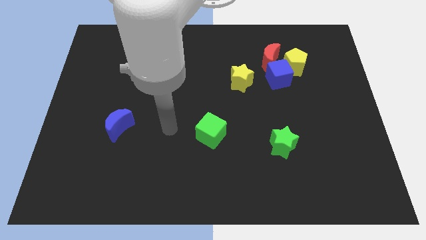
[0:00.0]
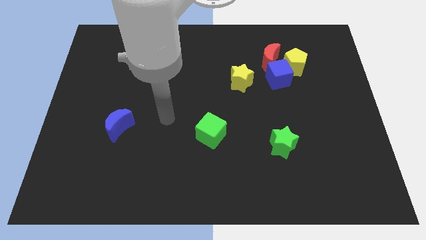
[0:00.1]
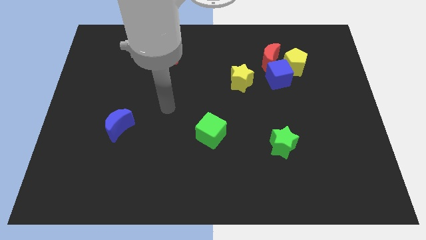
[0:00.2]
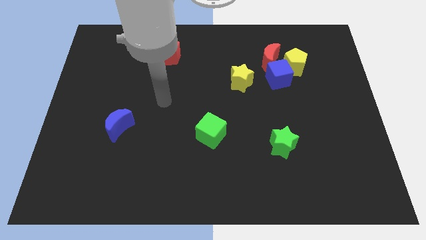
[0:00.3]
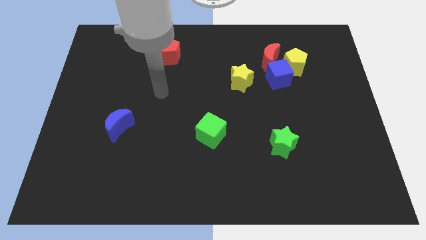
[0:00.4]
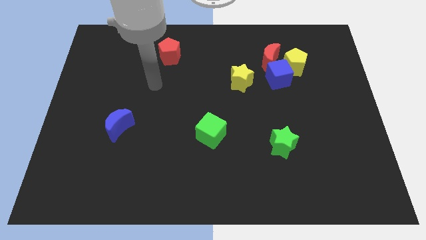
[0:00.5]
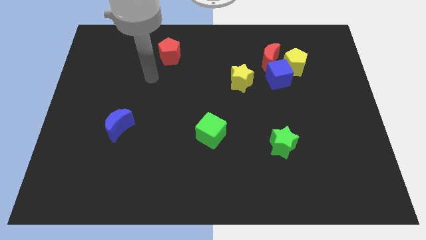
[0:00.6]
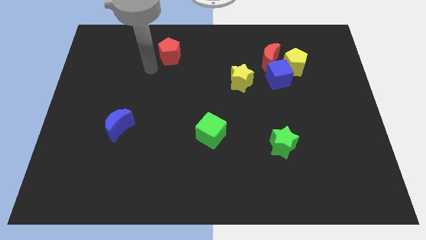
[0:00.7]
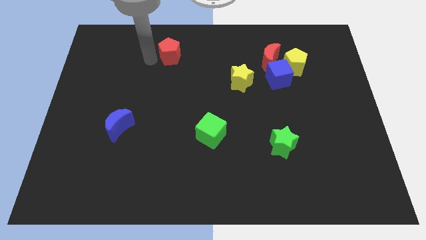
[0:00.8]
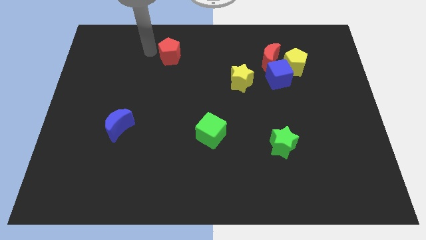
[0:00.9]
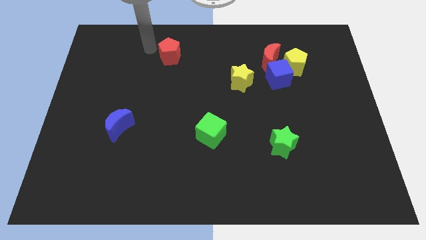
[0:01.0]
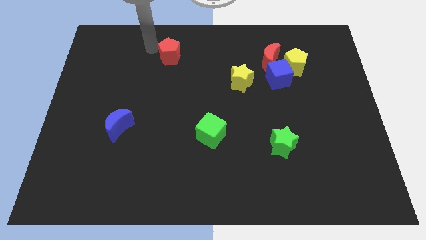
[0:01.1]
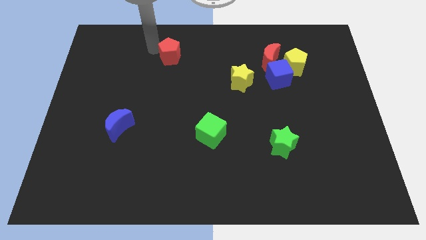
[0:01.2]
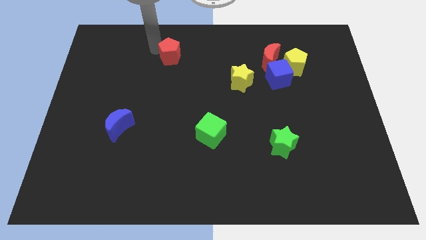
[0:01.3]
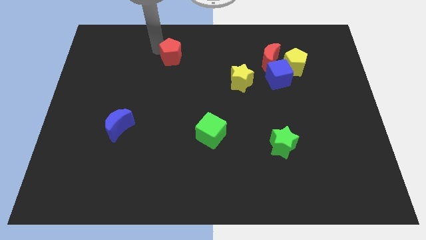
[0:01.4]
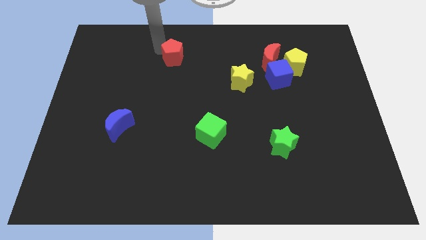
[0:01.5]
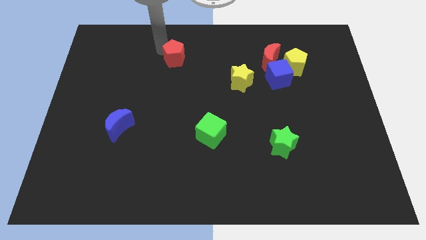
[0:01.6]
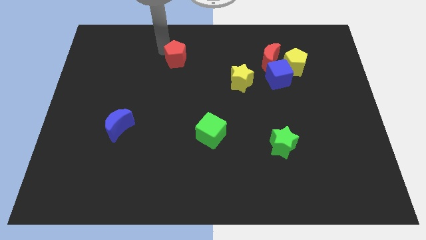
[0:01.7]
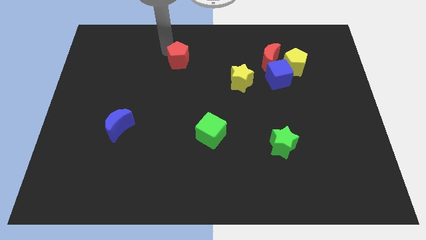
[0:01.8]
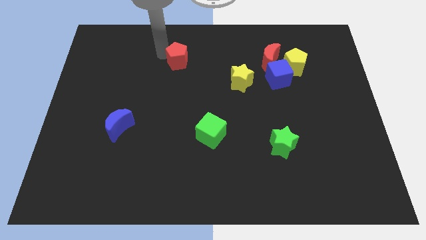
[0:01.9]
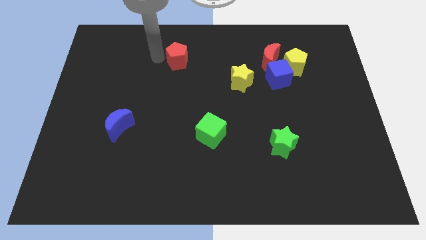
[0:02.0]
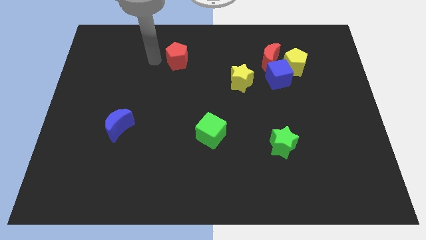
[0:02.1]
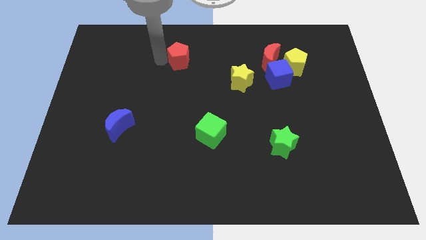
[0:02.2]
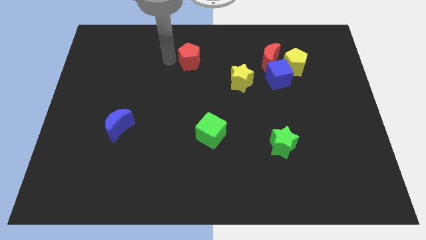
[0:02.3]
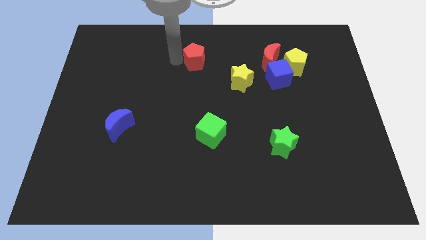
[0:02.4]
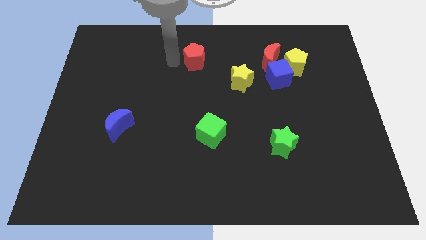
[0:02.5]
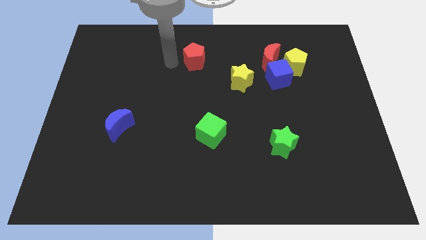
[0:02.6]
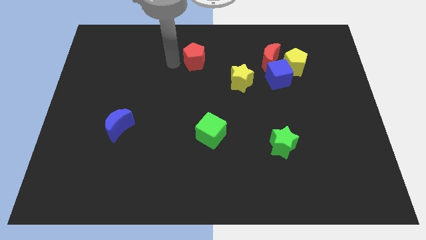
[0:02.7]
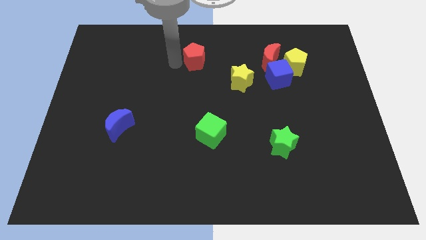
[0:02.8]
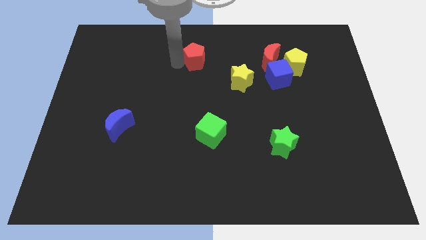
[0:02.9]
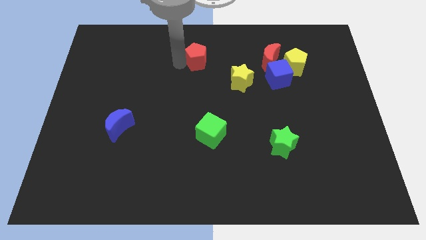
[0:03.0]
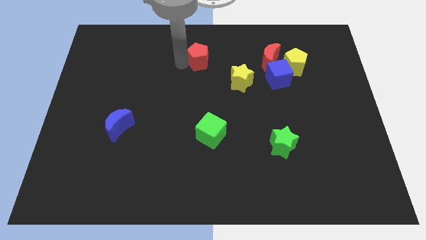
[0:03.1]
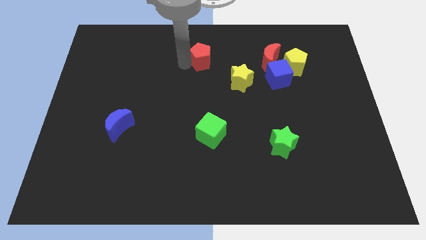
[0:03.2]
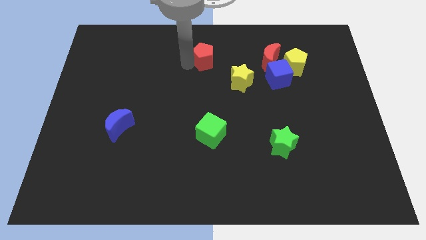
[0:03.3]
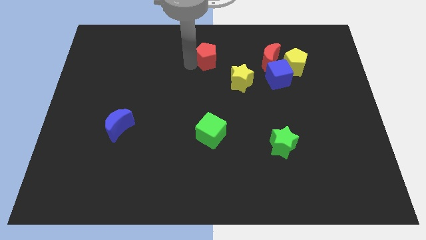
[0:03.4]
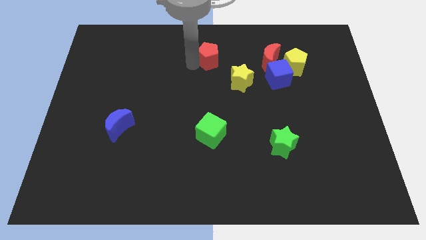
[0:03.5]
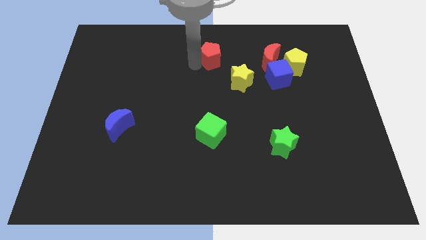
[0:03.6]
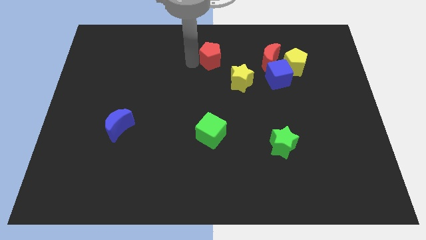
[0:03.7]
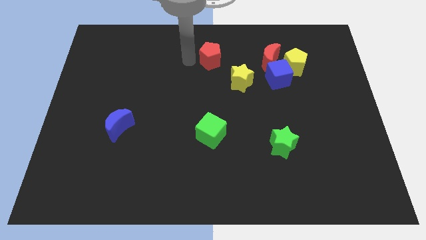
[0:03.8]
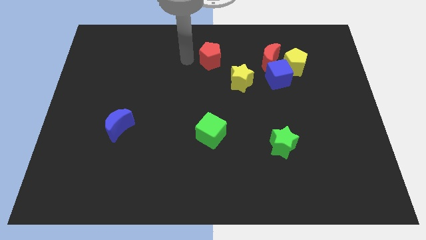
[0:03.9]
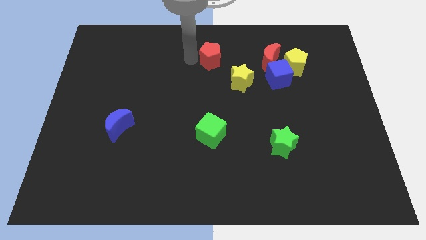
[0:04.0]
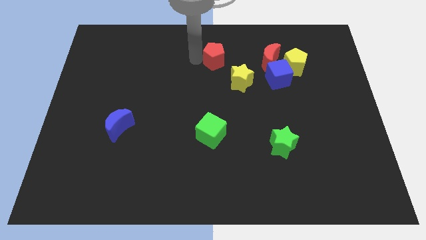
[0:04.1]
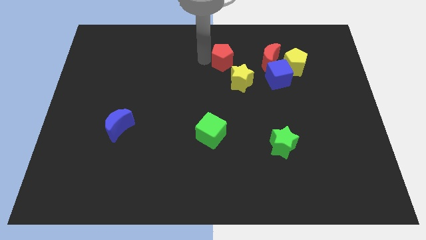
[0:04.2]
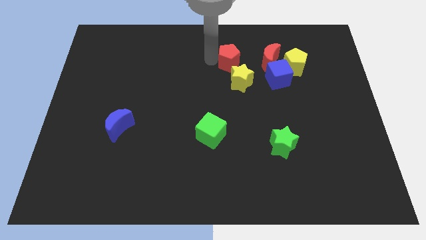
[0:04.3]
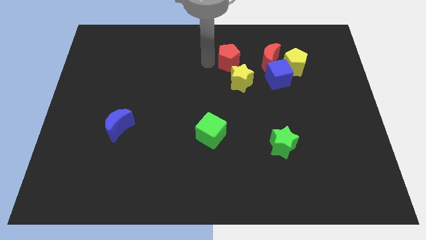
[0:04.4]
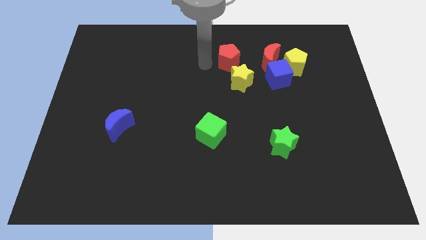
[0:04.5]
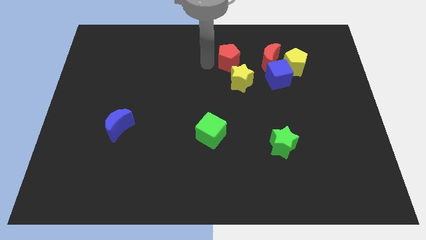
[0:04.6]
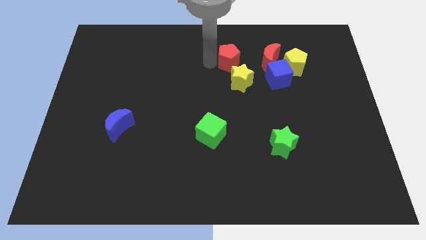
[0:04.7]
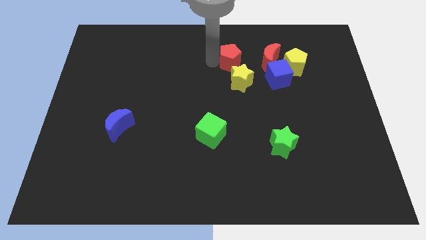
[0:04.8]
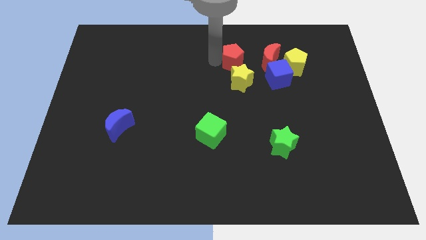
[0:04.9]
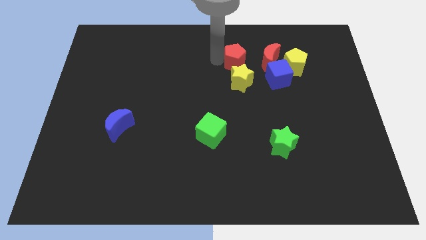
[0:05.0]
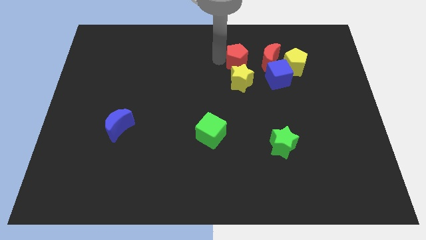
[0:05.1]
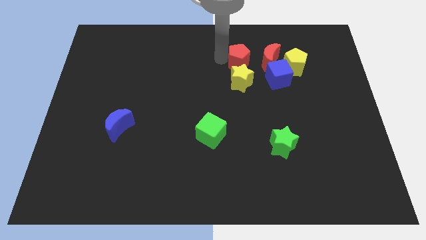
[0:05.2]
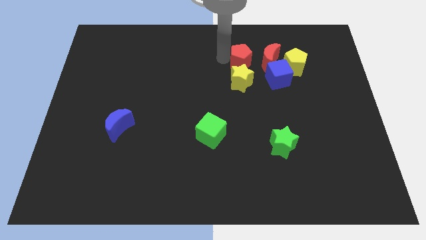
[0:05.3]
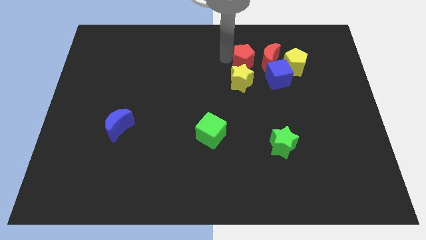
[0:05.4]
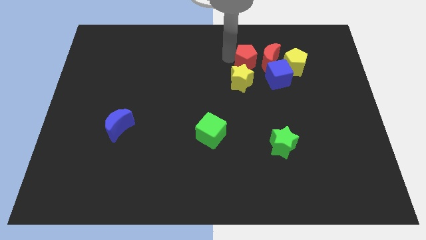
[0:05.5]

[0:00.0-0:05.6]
move the red pentagon next to the red moon

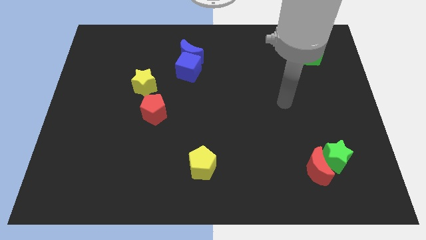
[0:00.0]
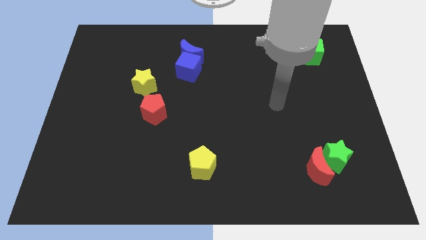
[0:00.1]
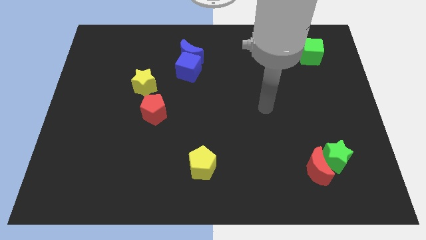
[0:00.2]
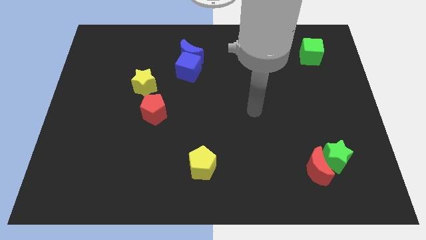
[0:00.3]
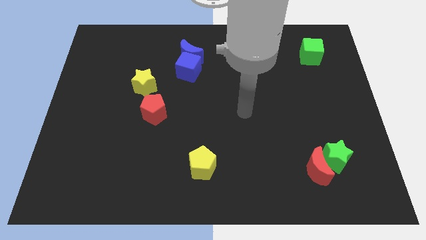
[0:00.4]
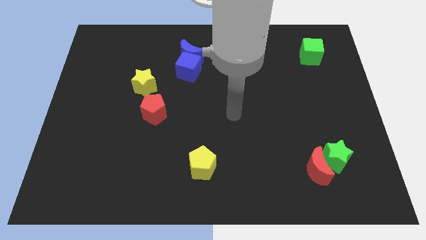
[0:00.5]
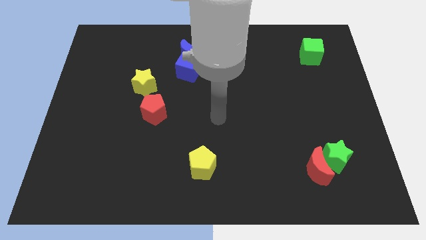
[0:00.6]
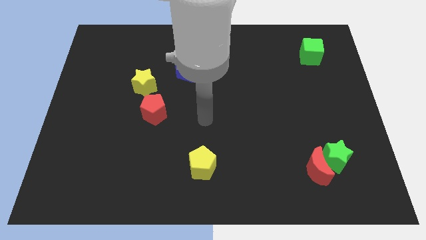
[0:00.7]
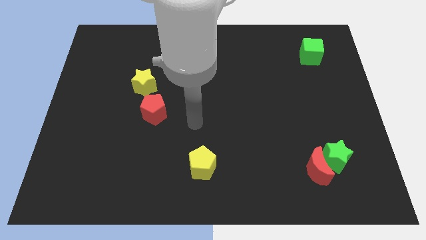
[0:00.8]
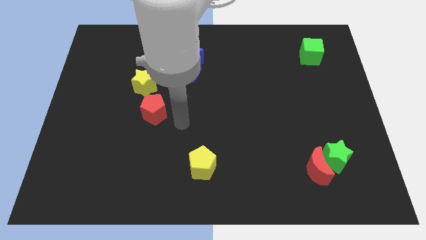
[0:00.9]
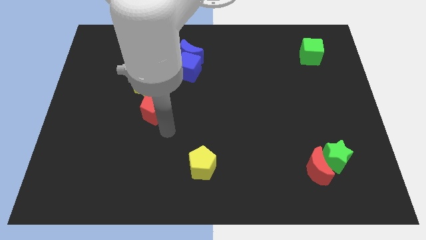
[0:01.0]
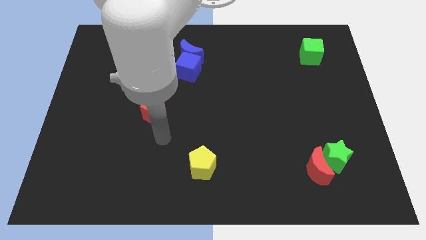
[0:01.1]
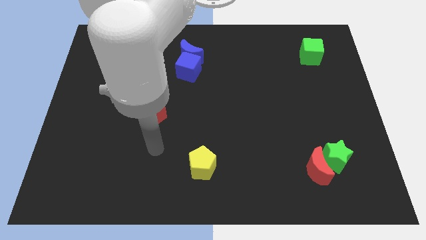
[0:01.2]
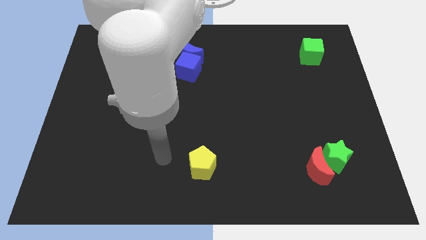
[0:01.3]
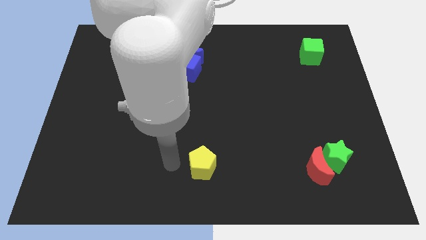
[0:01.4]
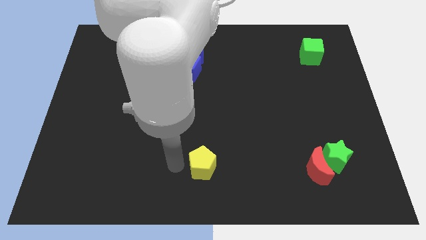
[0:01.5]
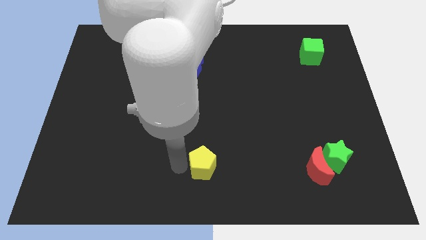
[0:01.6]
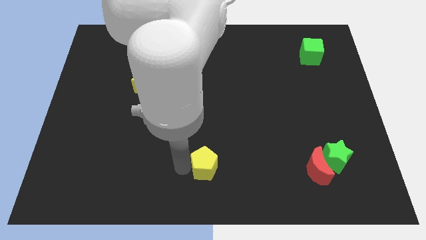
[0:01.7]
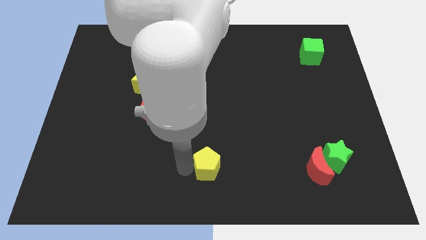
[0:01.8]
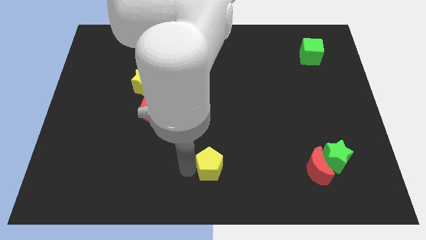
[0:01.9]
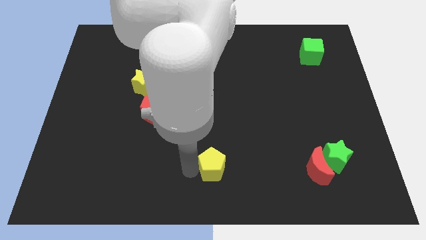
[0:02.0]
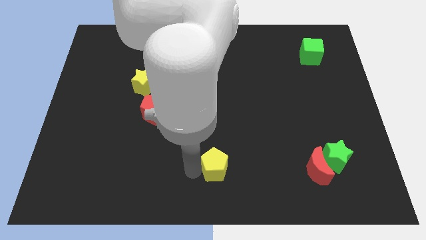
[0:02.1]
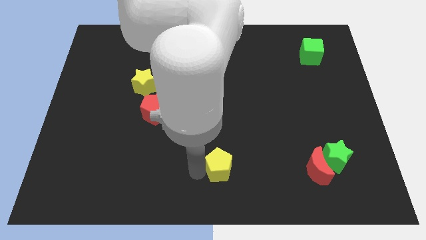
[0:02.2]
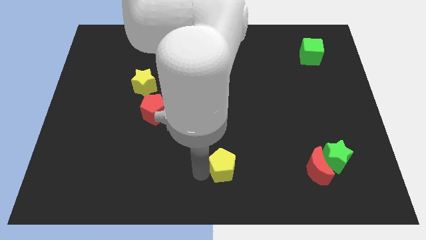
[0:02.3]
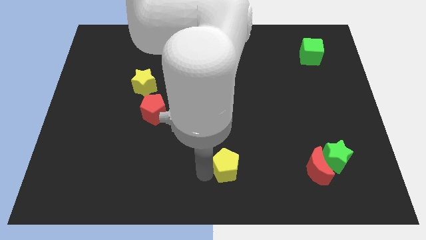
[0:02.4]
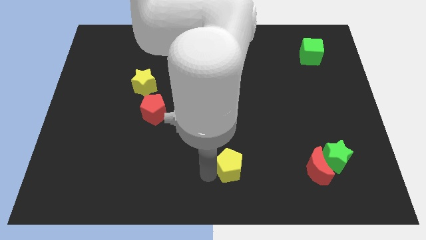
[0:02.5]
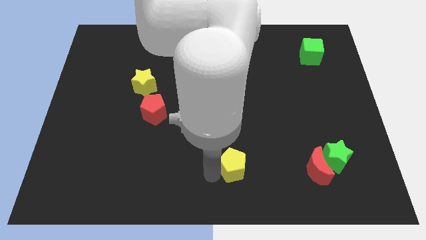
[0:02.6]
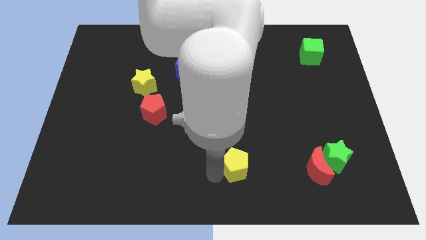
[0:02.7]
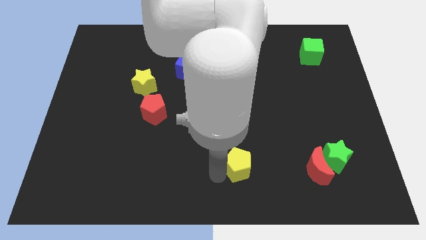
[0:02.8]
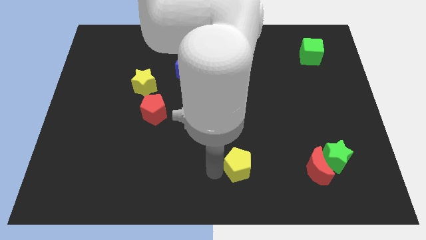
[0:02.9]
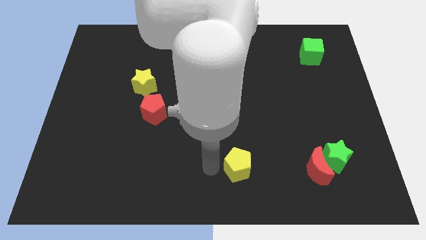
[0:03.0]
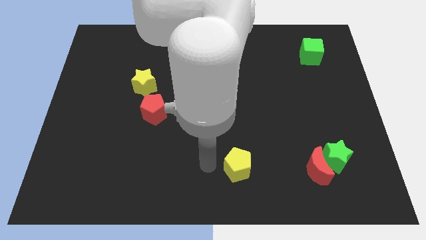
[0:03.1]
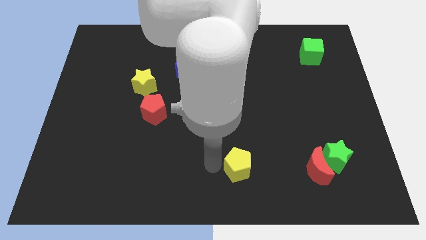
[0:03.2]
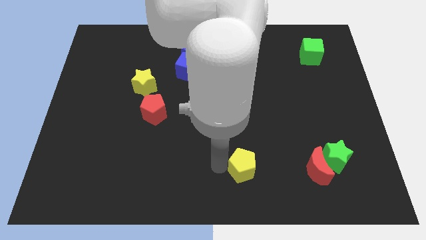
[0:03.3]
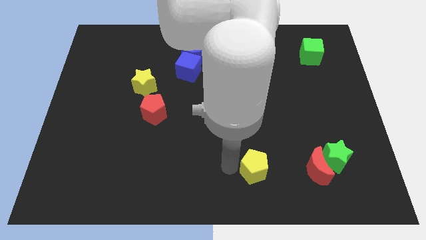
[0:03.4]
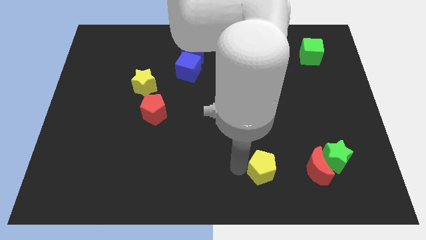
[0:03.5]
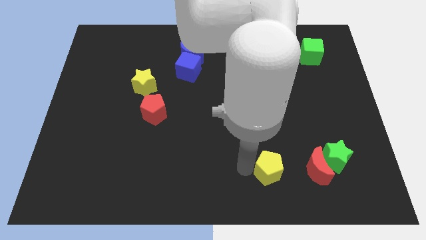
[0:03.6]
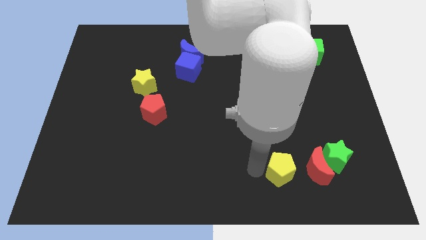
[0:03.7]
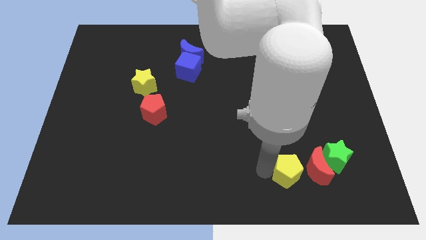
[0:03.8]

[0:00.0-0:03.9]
slide the yellow pentagon towards the red moon
